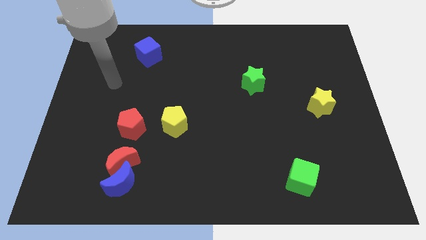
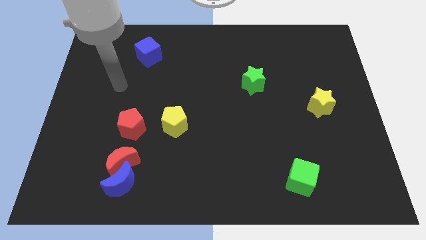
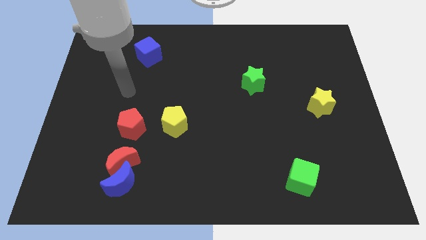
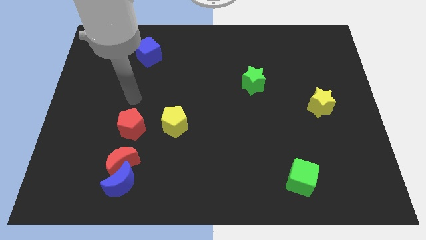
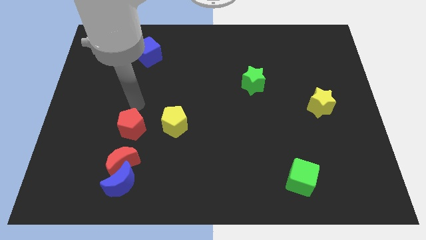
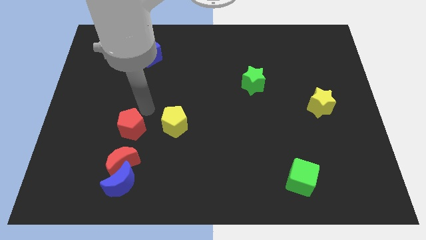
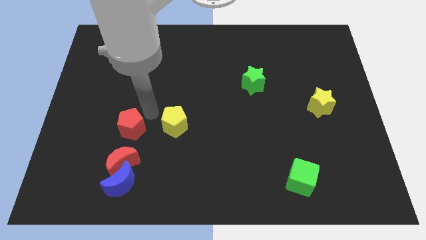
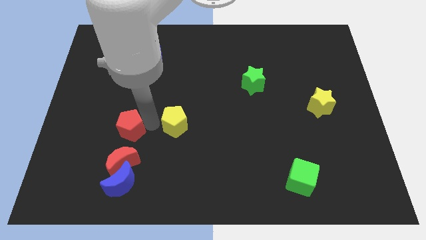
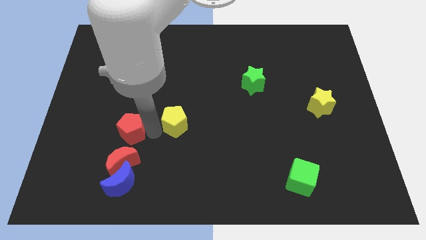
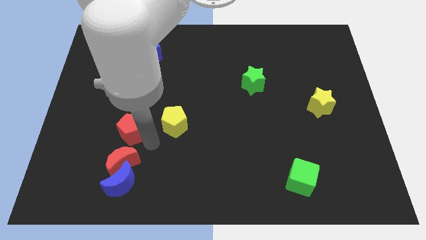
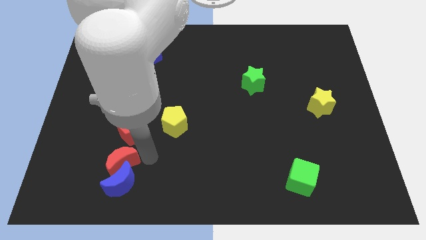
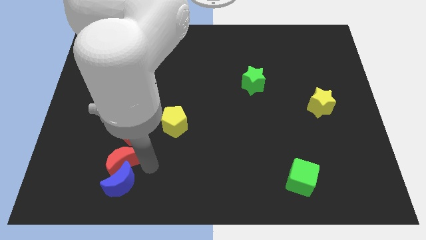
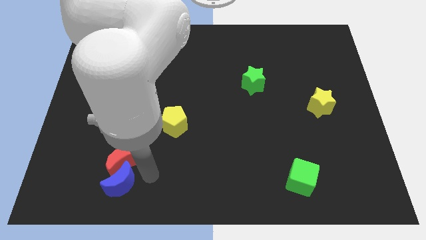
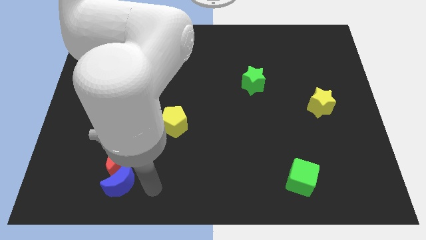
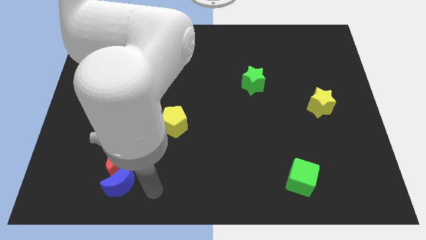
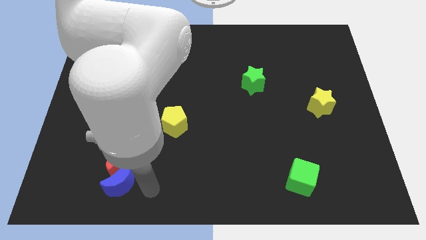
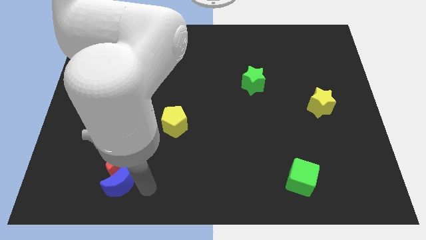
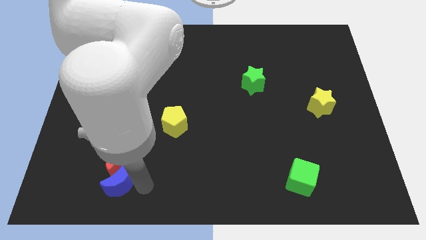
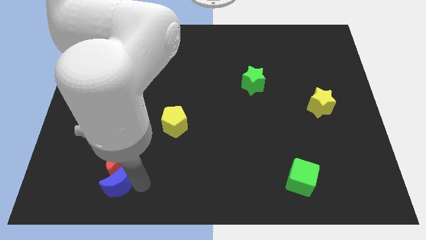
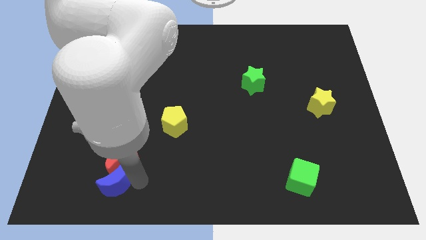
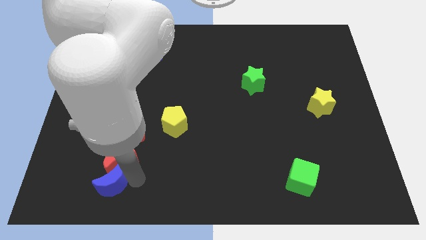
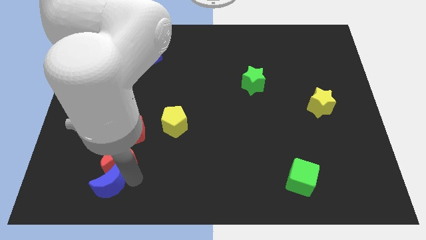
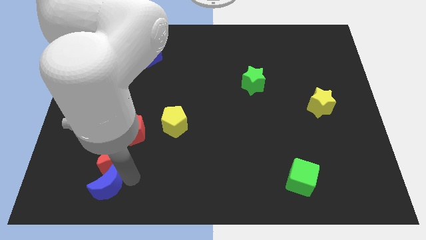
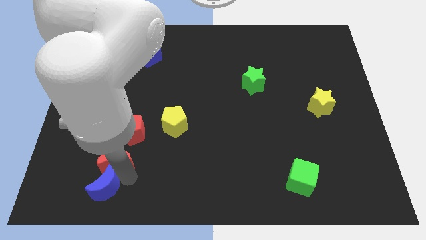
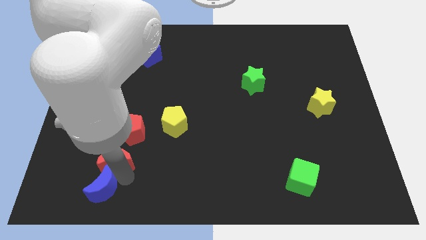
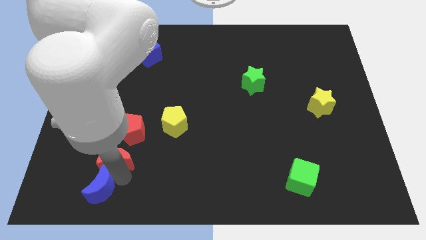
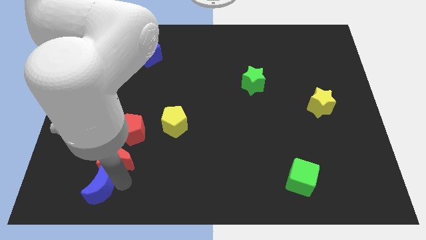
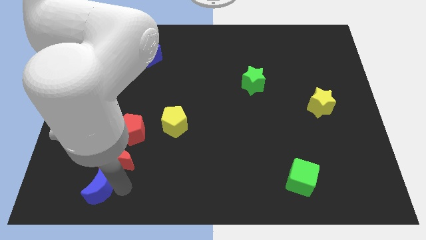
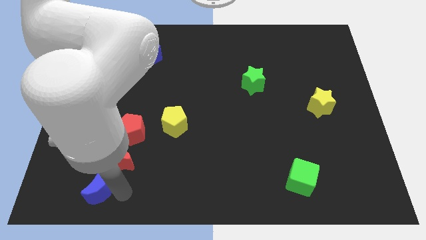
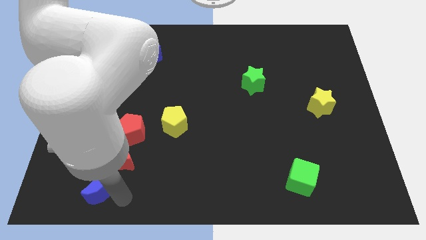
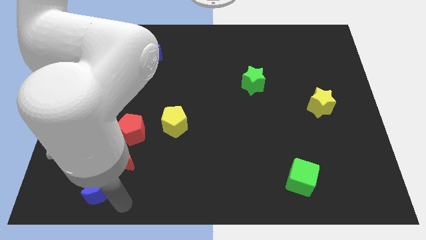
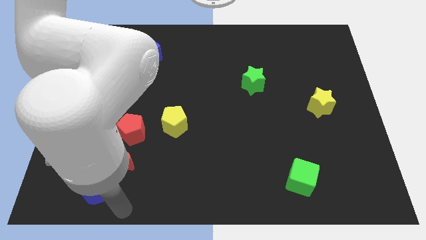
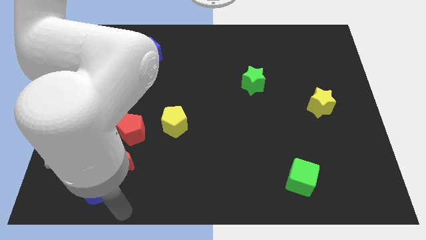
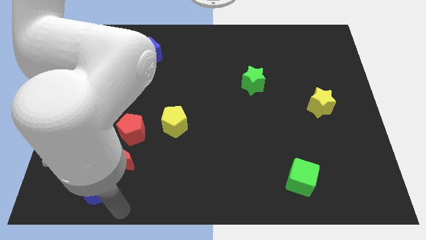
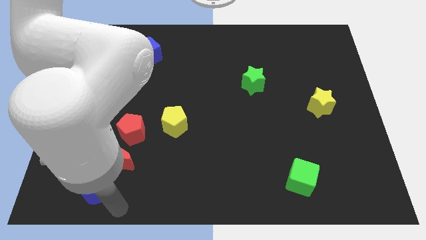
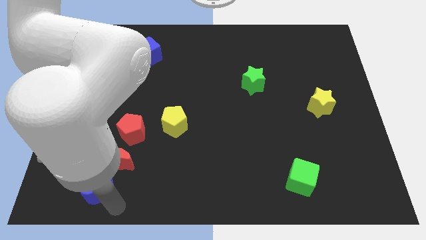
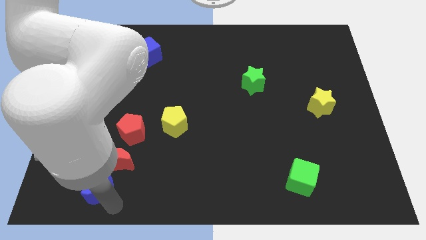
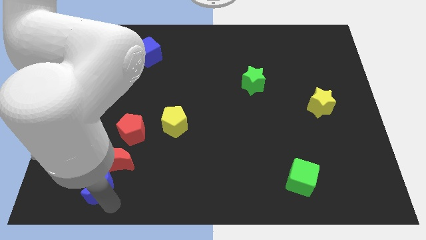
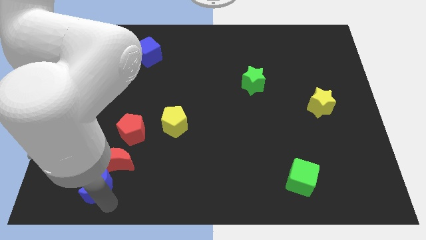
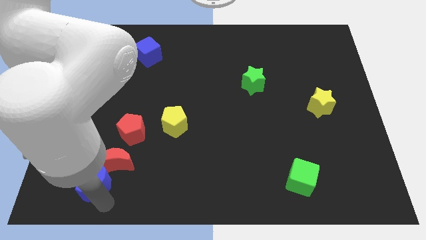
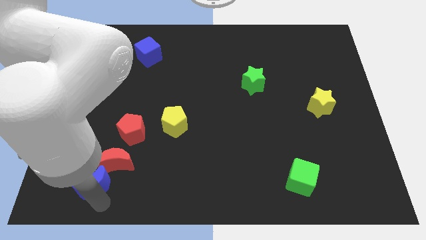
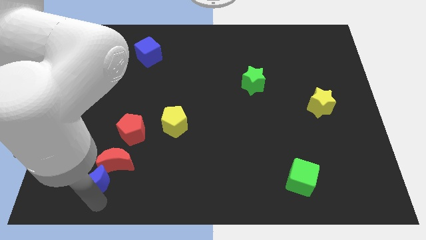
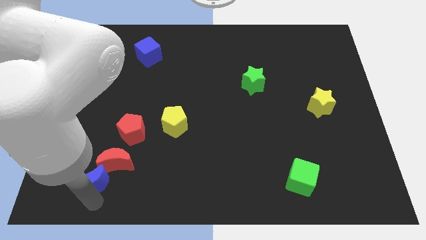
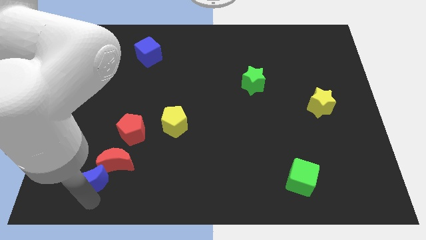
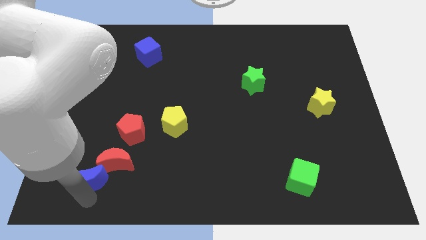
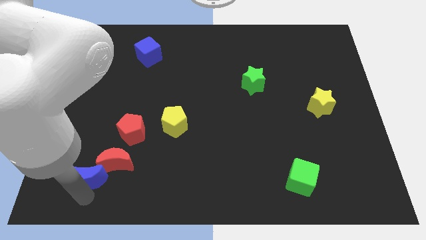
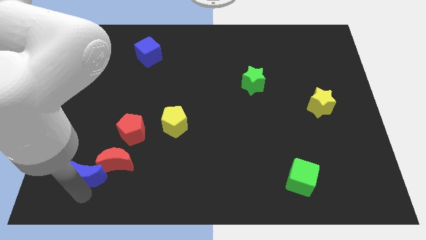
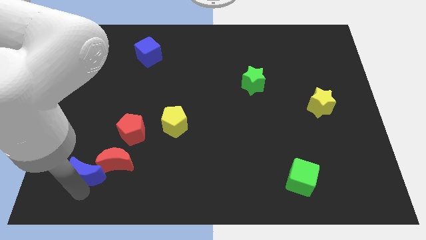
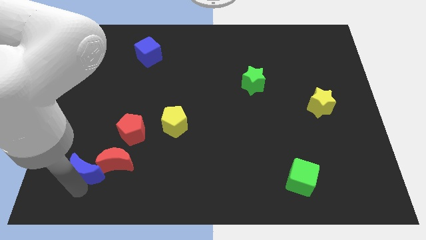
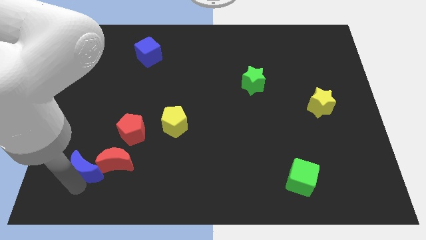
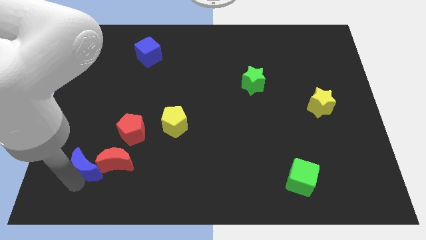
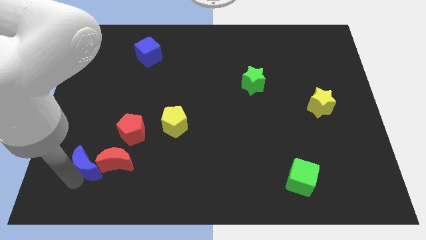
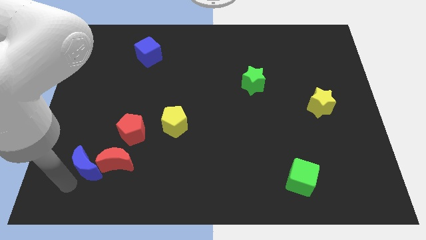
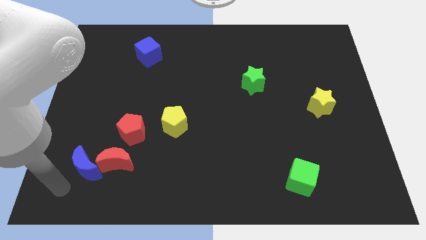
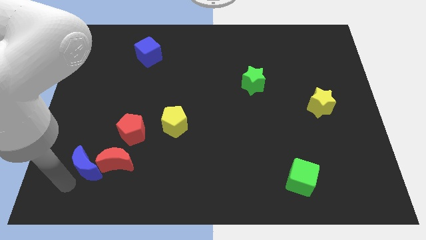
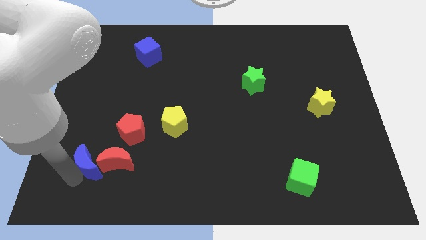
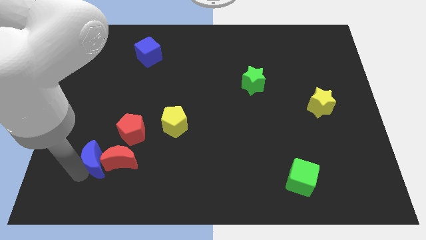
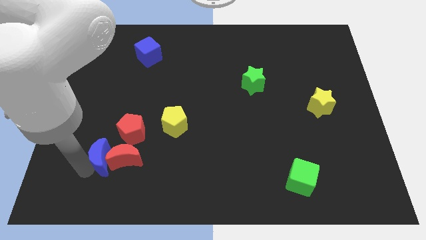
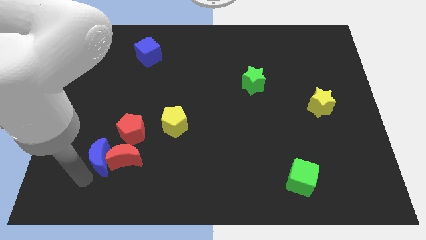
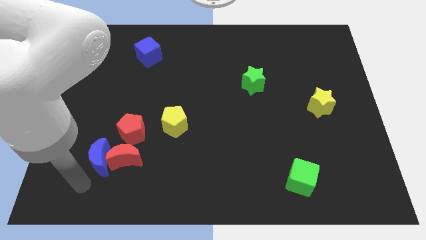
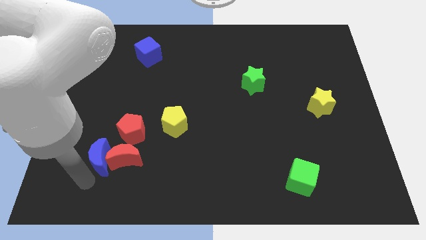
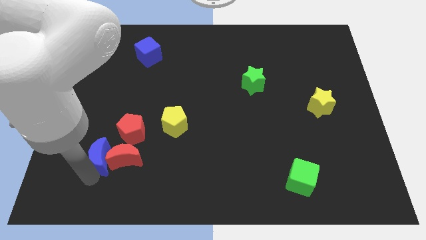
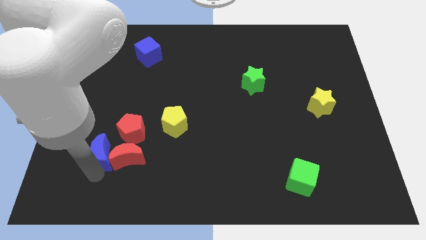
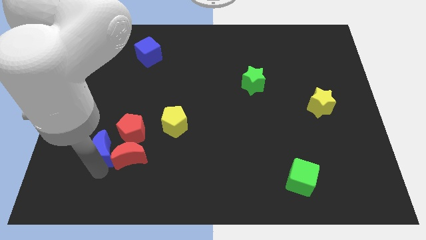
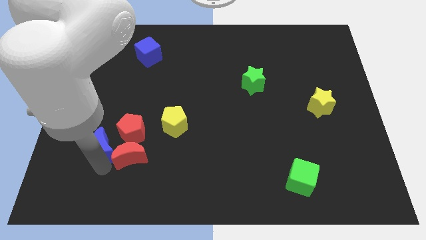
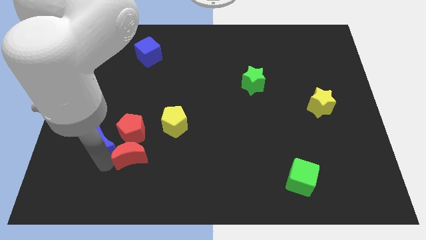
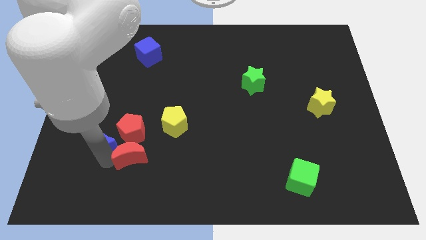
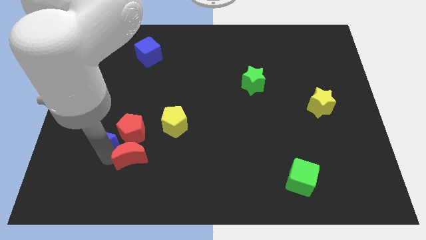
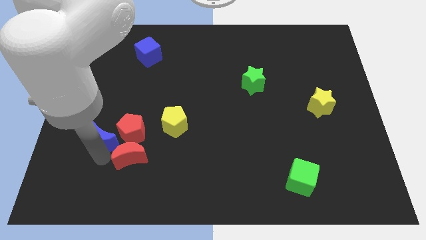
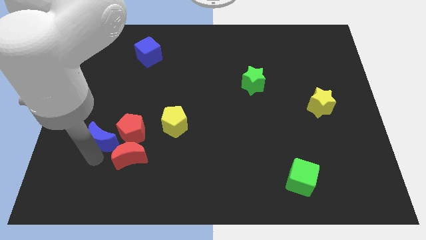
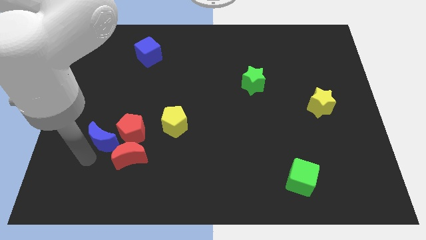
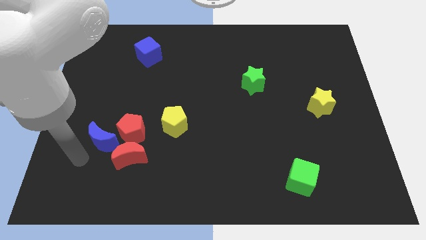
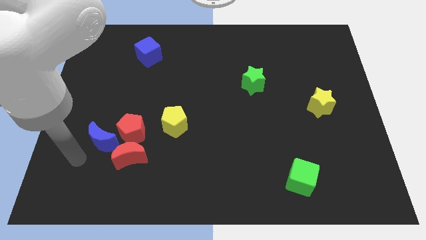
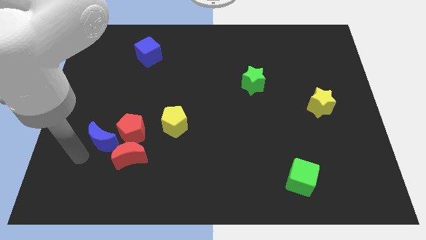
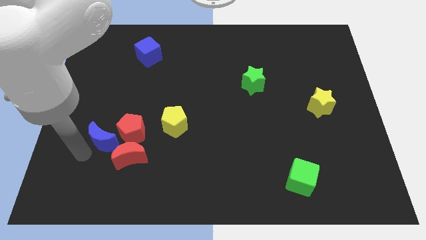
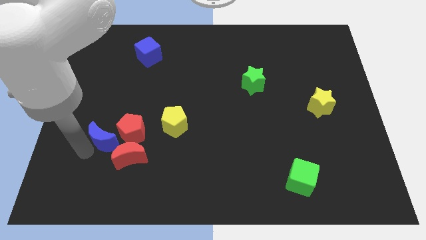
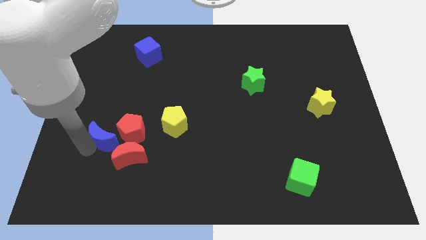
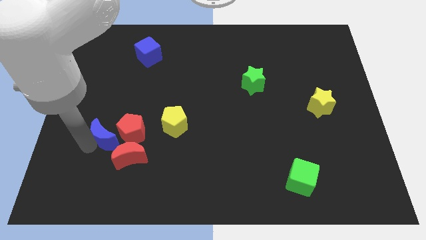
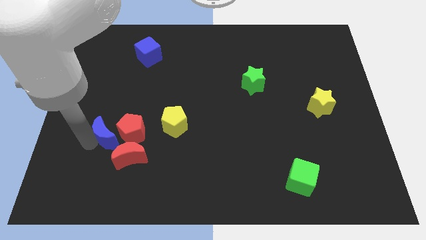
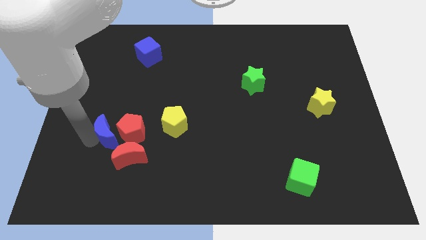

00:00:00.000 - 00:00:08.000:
push the blue moon left of the yellow pentagon
